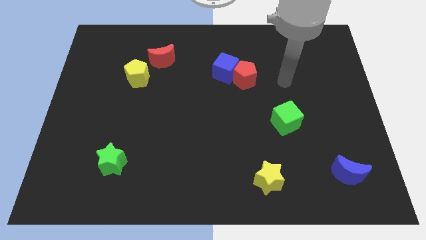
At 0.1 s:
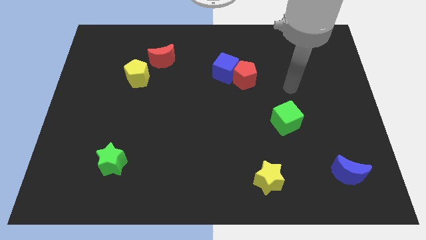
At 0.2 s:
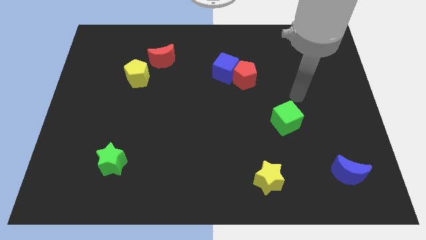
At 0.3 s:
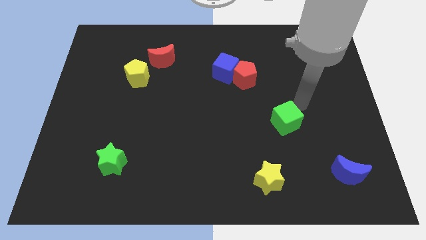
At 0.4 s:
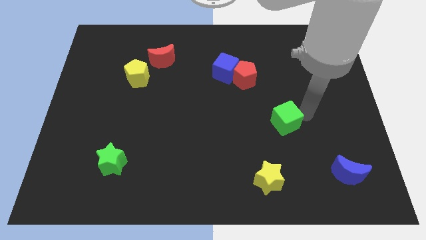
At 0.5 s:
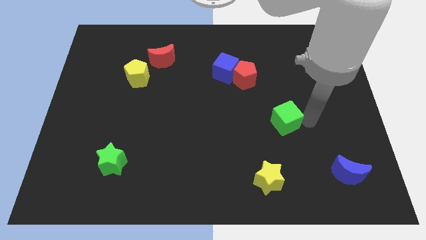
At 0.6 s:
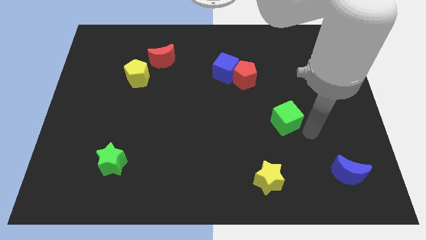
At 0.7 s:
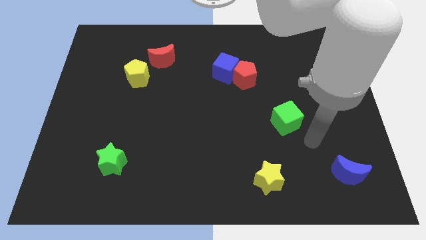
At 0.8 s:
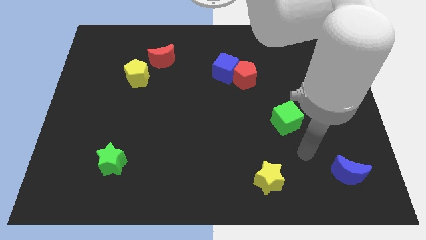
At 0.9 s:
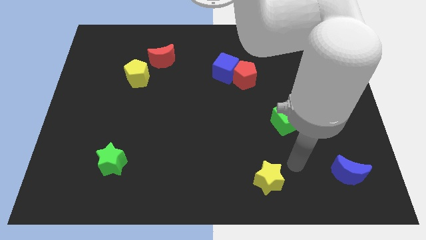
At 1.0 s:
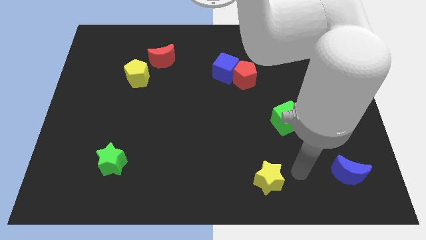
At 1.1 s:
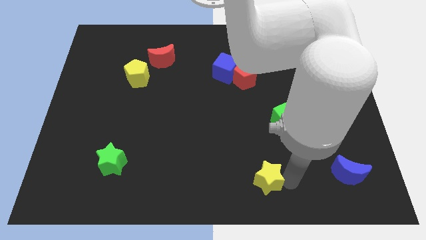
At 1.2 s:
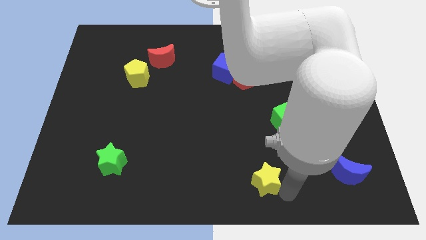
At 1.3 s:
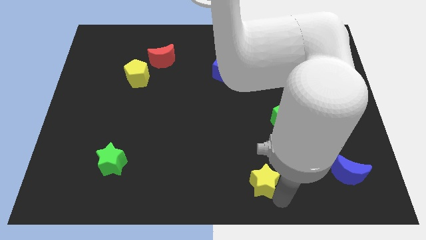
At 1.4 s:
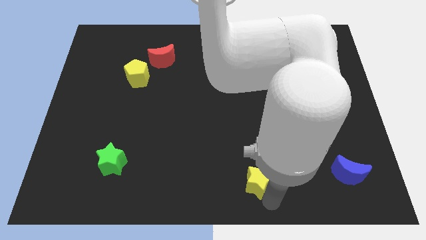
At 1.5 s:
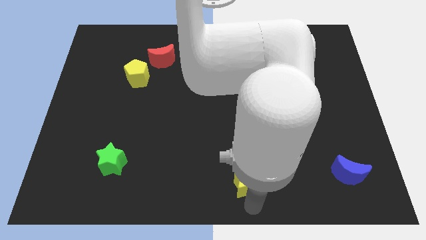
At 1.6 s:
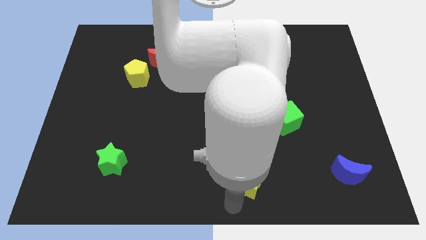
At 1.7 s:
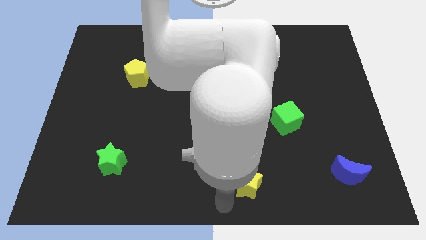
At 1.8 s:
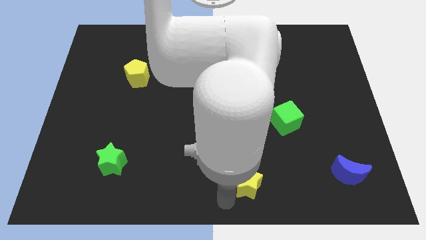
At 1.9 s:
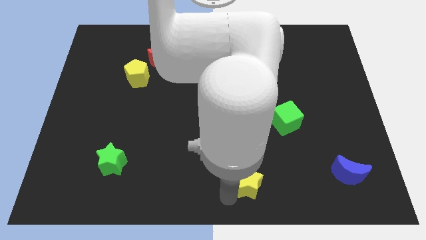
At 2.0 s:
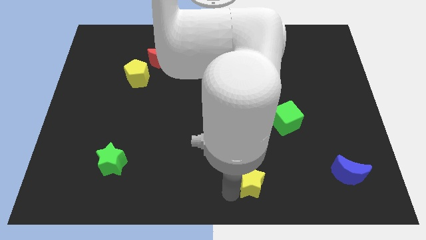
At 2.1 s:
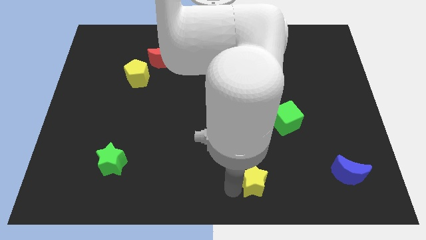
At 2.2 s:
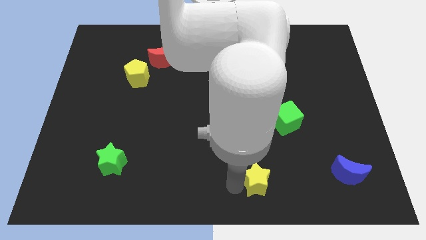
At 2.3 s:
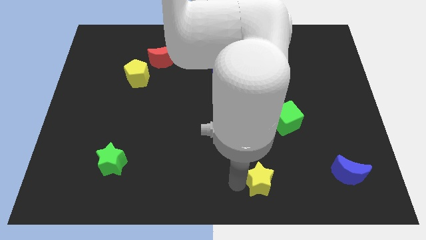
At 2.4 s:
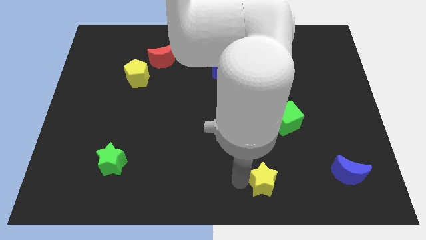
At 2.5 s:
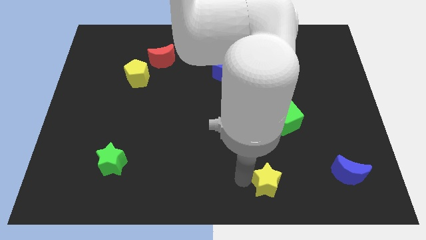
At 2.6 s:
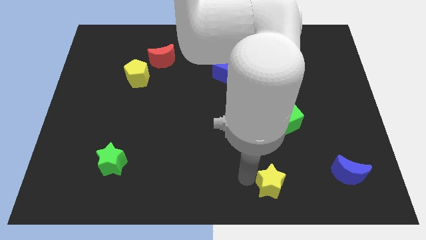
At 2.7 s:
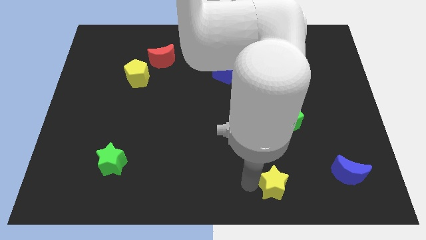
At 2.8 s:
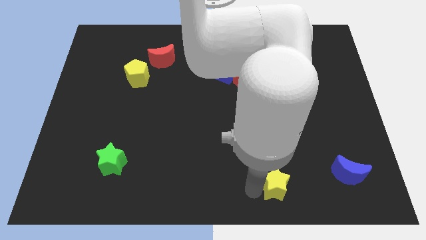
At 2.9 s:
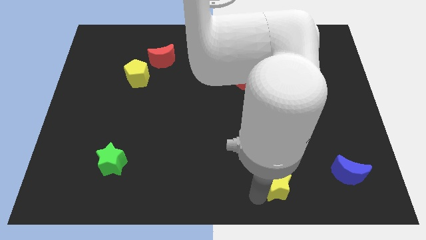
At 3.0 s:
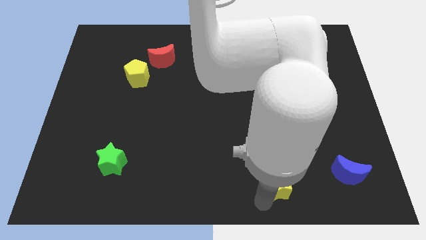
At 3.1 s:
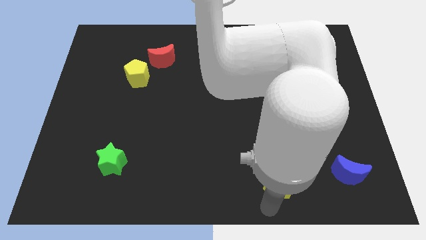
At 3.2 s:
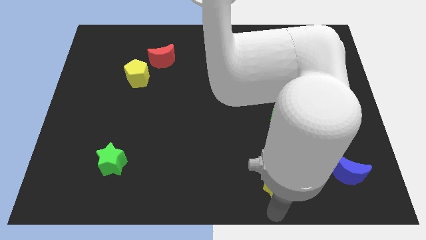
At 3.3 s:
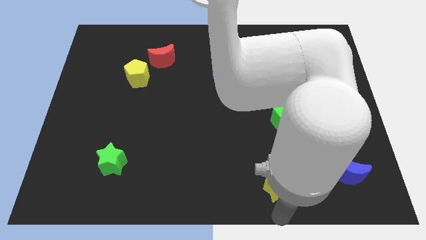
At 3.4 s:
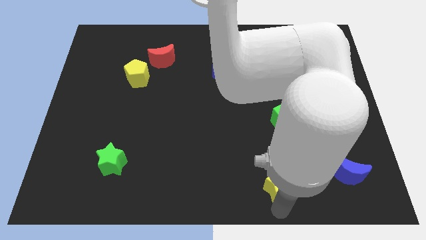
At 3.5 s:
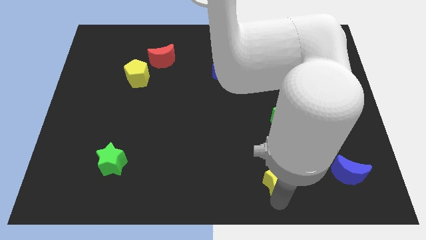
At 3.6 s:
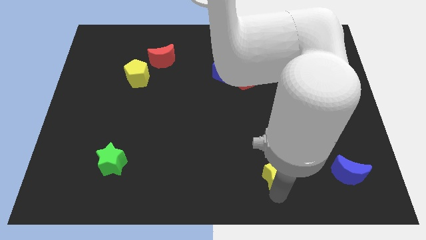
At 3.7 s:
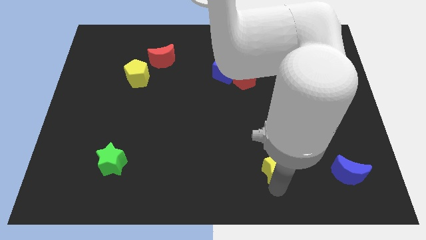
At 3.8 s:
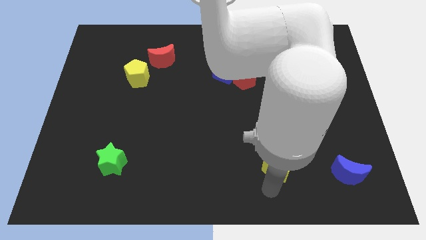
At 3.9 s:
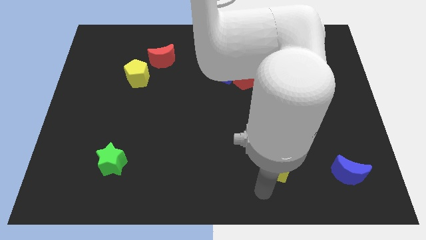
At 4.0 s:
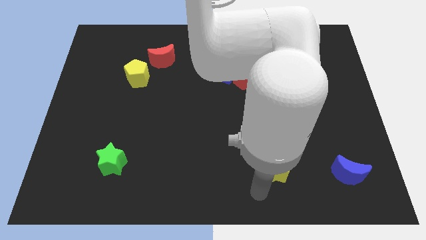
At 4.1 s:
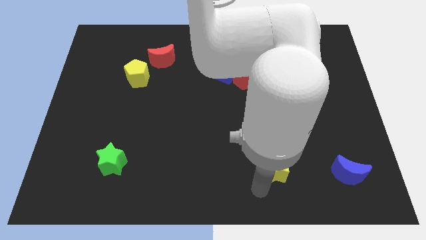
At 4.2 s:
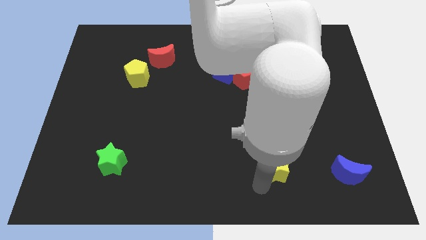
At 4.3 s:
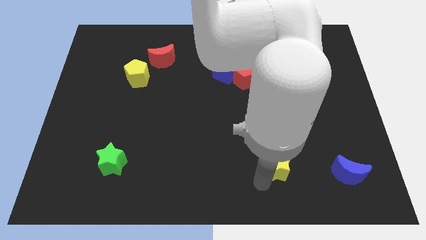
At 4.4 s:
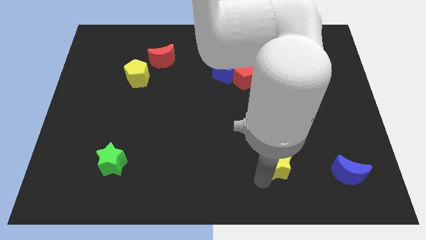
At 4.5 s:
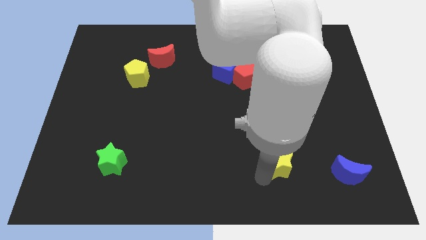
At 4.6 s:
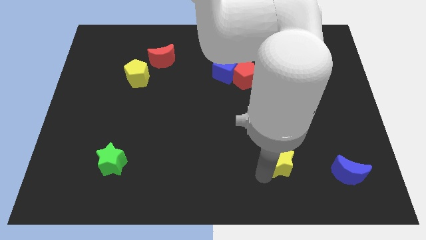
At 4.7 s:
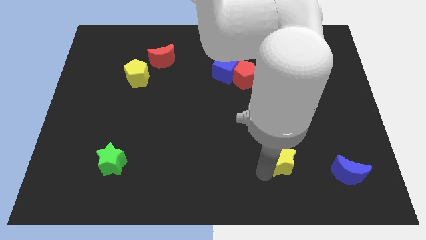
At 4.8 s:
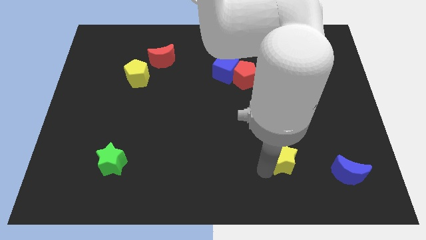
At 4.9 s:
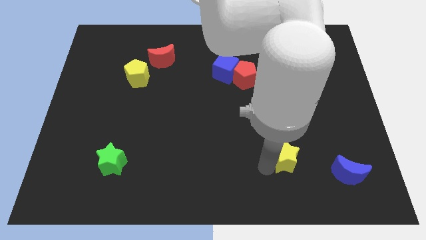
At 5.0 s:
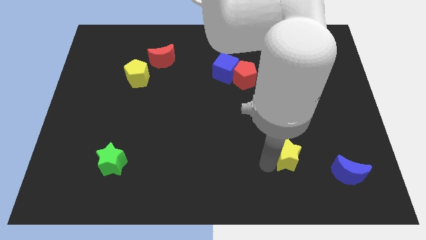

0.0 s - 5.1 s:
move the yellow star slightly upwards and to the right

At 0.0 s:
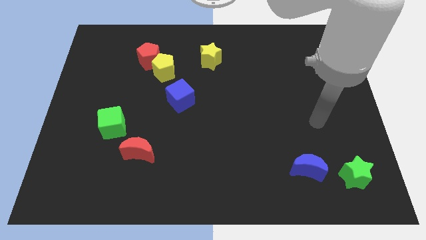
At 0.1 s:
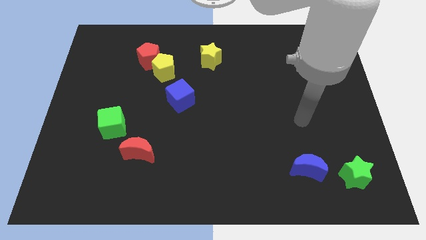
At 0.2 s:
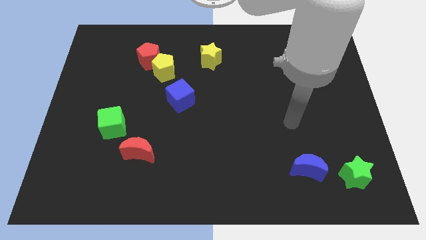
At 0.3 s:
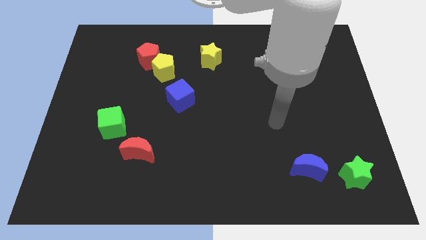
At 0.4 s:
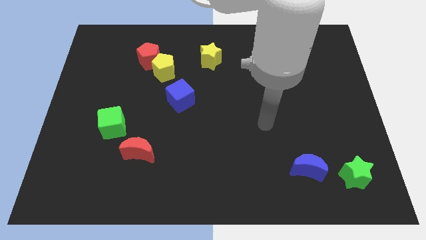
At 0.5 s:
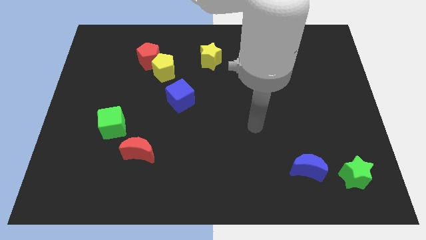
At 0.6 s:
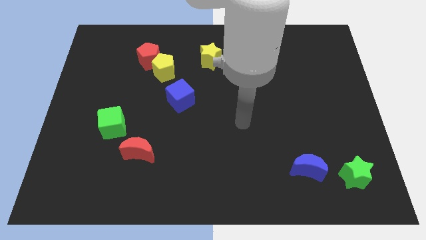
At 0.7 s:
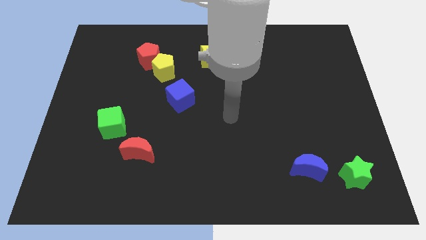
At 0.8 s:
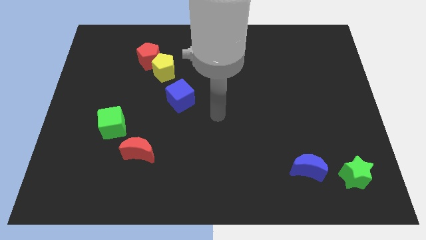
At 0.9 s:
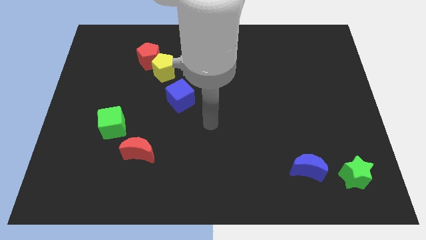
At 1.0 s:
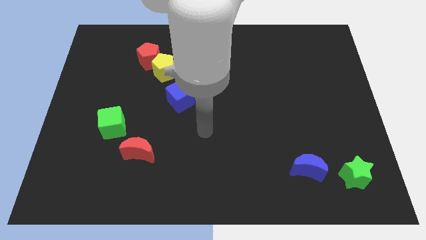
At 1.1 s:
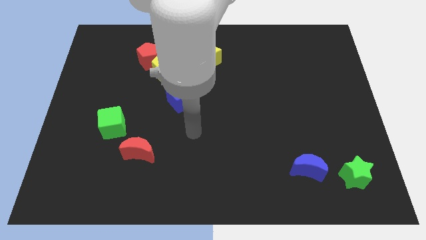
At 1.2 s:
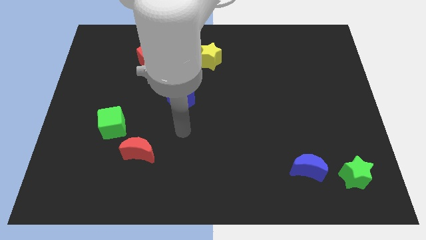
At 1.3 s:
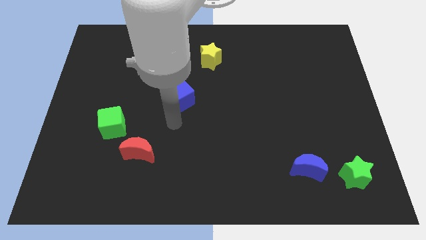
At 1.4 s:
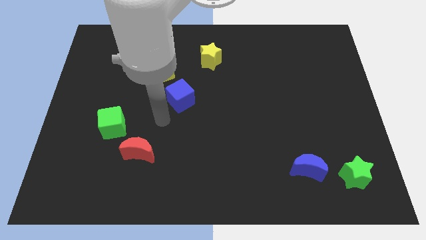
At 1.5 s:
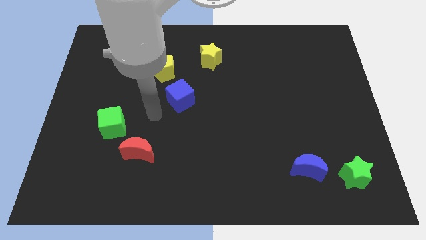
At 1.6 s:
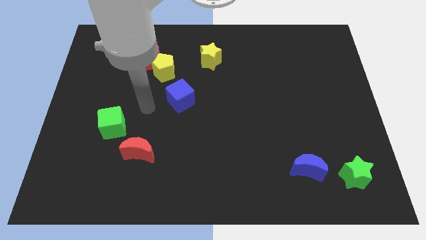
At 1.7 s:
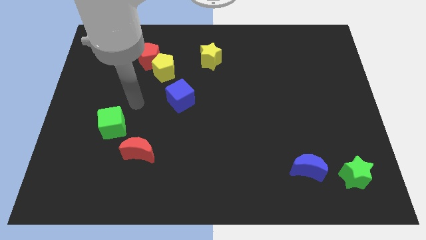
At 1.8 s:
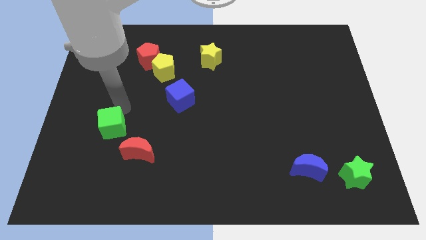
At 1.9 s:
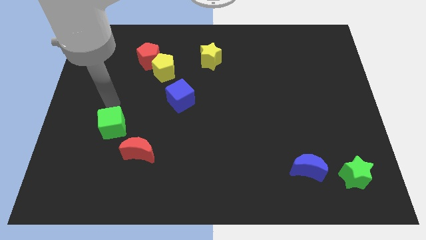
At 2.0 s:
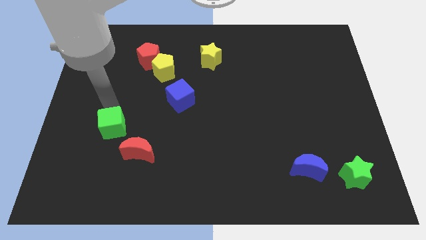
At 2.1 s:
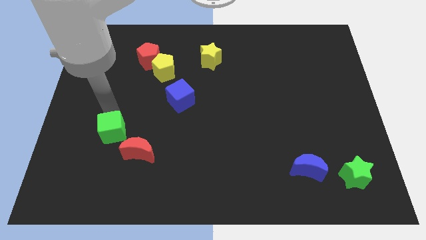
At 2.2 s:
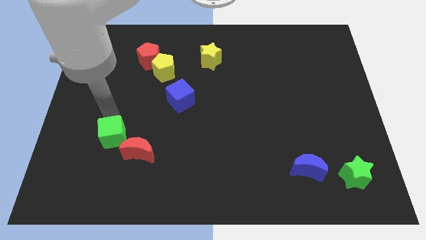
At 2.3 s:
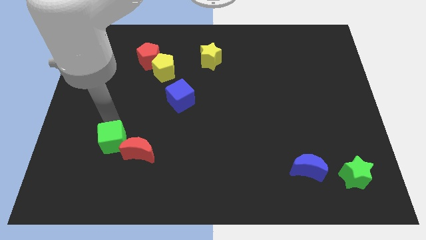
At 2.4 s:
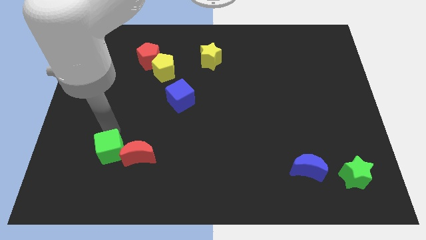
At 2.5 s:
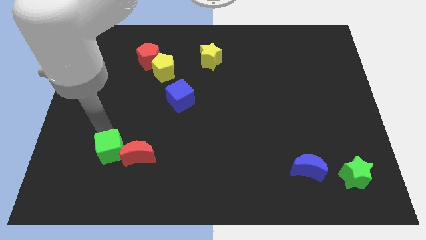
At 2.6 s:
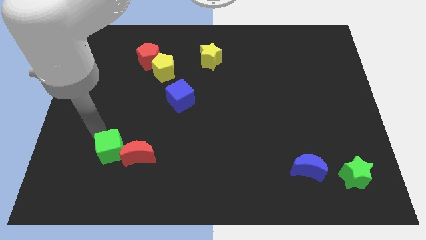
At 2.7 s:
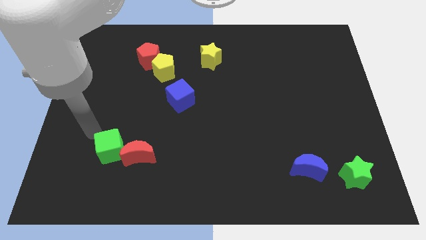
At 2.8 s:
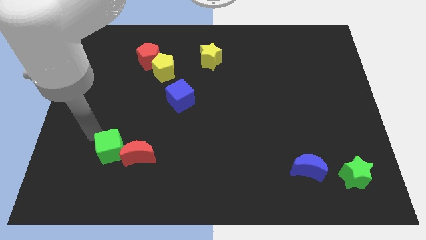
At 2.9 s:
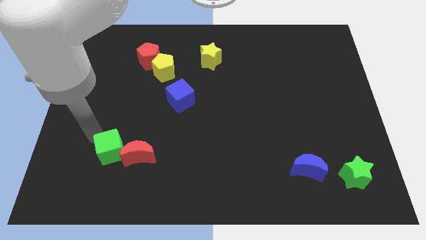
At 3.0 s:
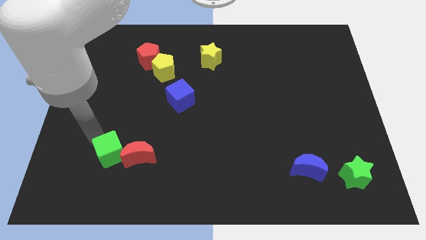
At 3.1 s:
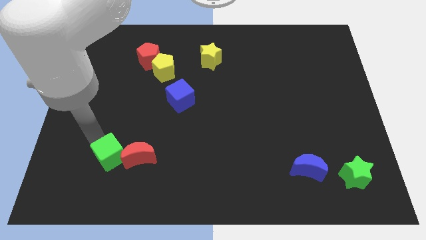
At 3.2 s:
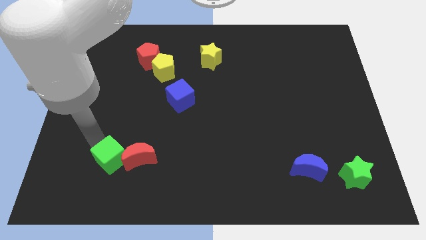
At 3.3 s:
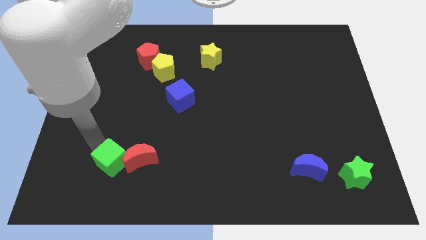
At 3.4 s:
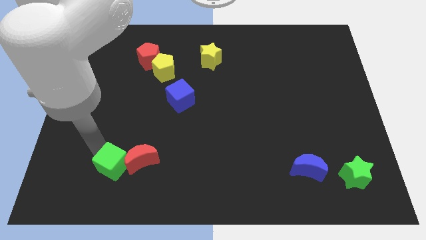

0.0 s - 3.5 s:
move the green cube diagonally downwards and to the right somewhat
